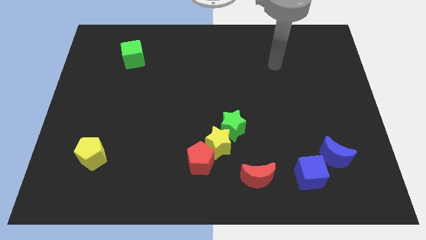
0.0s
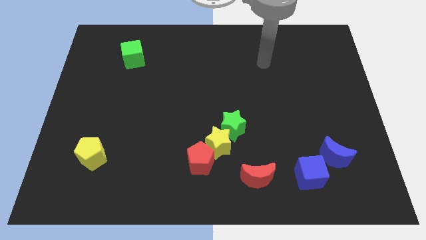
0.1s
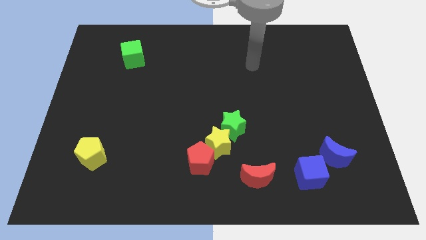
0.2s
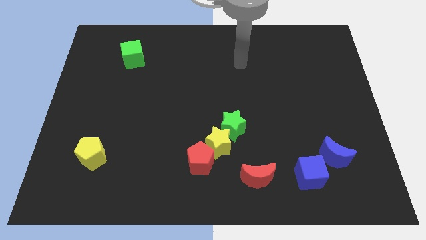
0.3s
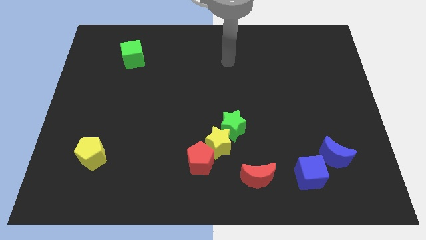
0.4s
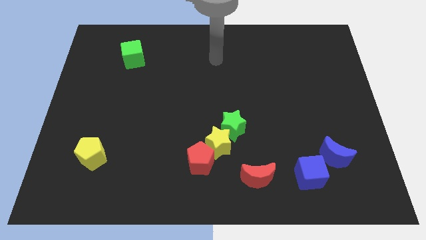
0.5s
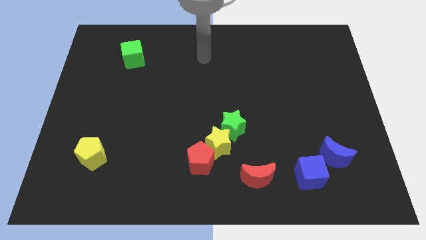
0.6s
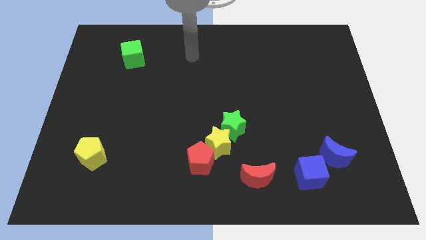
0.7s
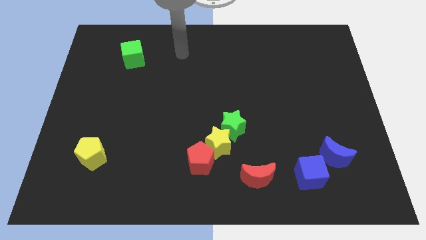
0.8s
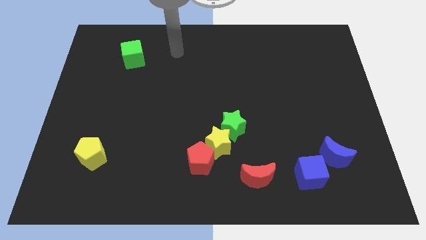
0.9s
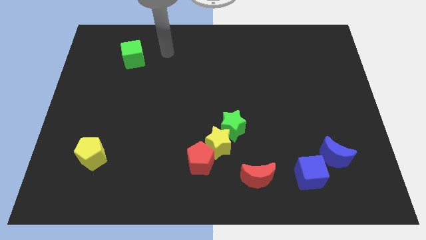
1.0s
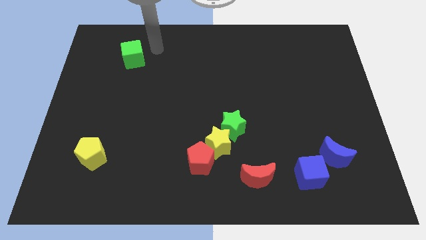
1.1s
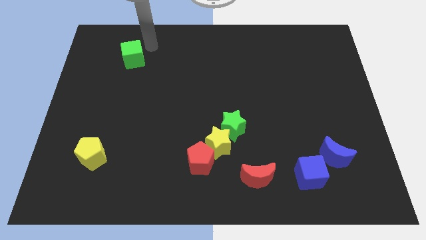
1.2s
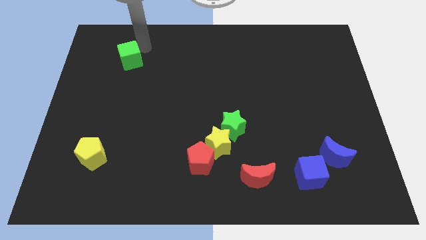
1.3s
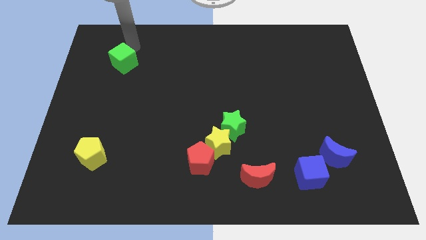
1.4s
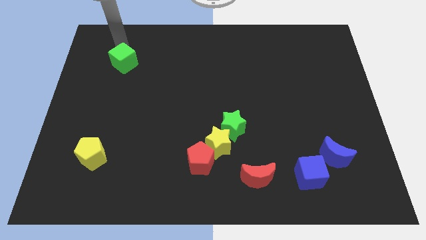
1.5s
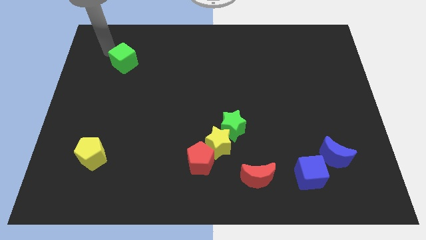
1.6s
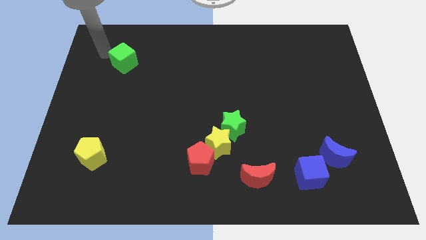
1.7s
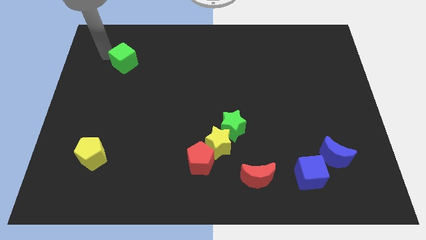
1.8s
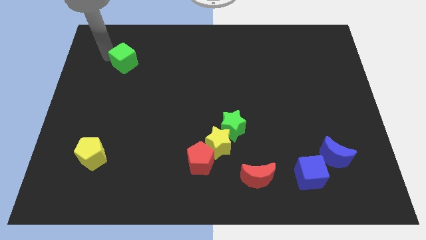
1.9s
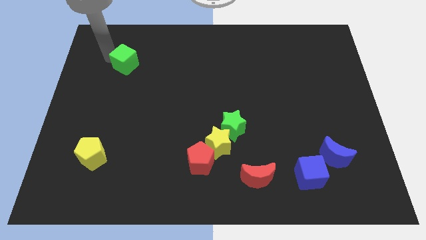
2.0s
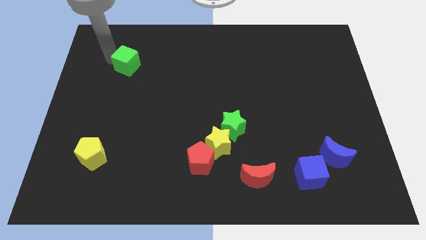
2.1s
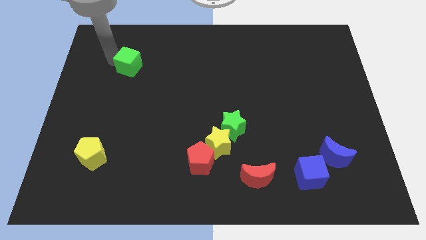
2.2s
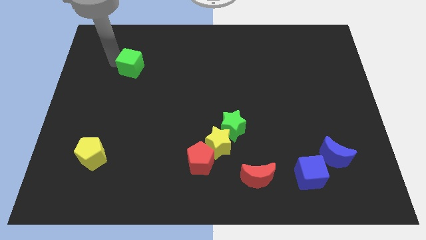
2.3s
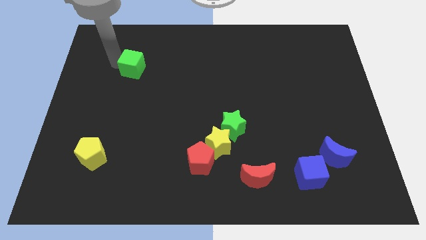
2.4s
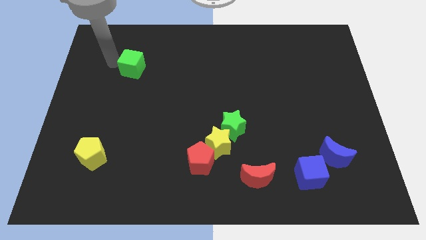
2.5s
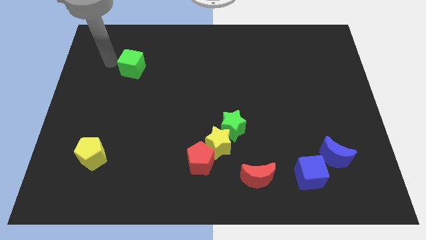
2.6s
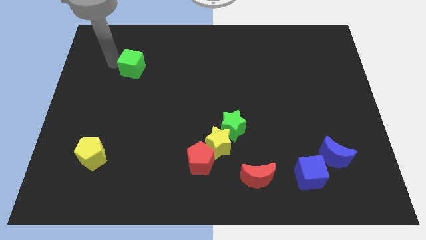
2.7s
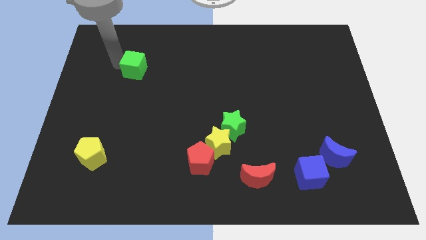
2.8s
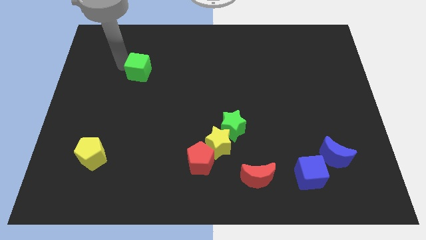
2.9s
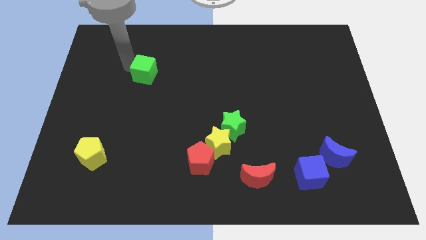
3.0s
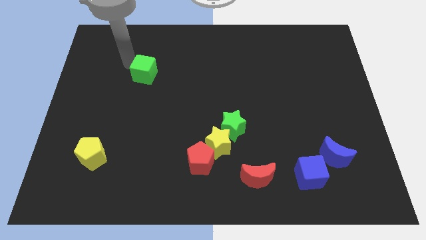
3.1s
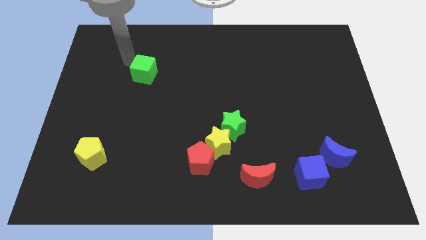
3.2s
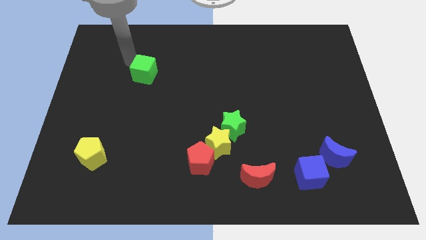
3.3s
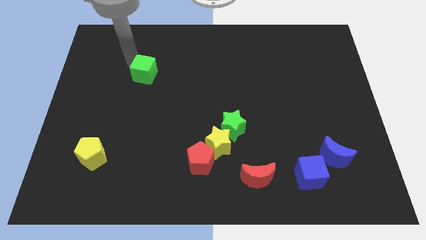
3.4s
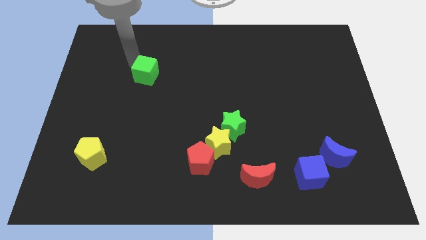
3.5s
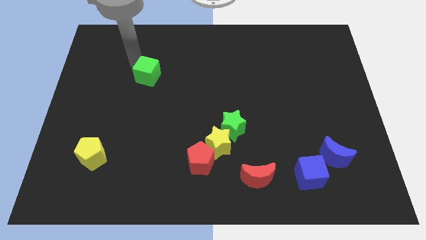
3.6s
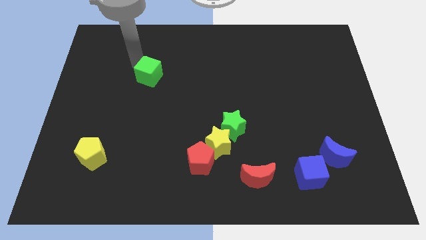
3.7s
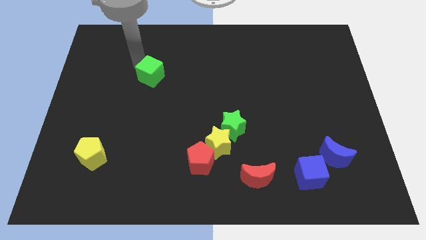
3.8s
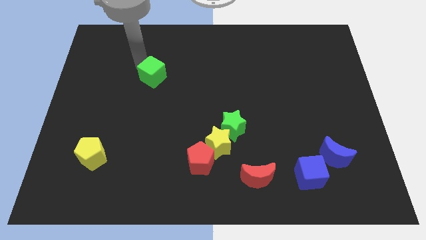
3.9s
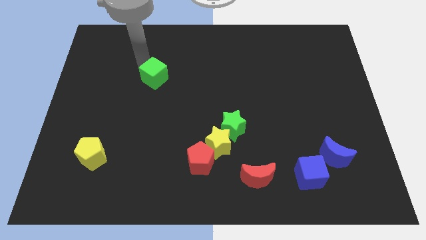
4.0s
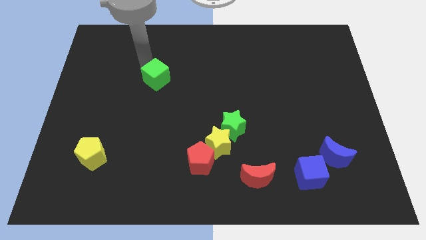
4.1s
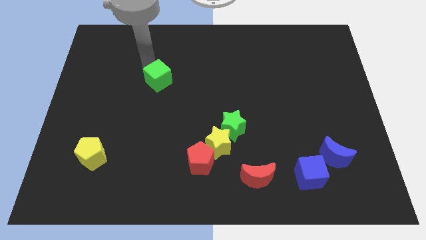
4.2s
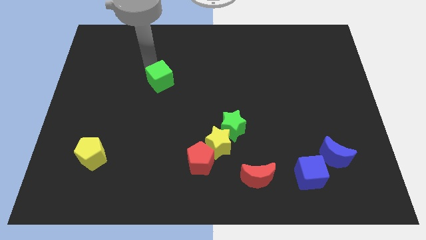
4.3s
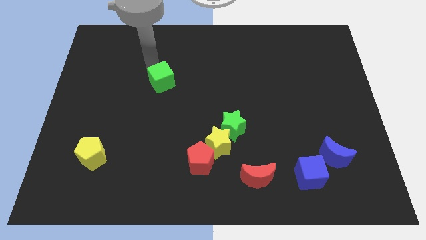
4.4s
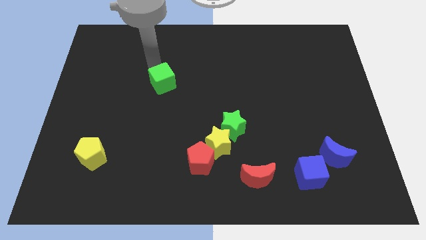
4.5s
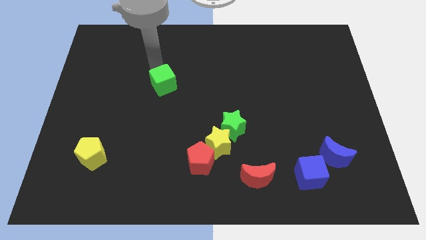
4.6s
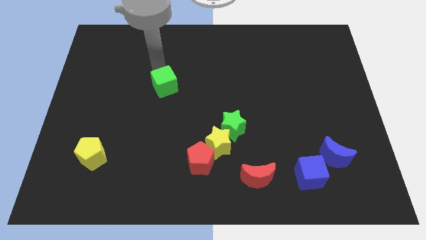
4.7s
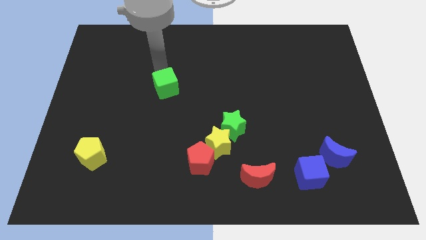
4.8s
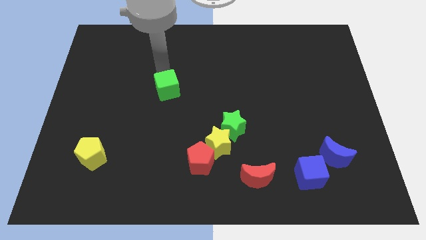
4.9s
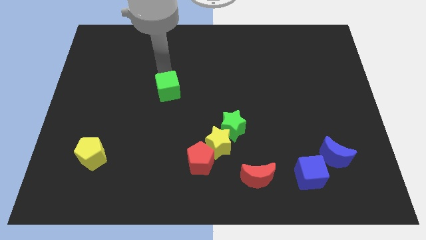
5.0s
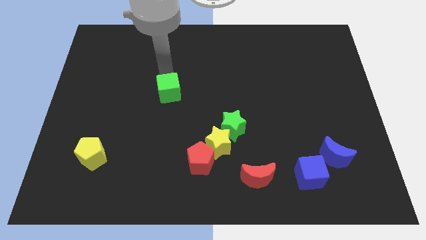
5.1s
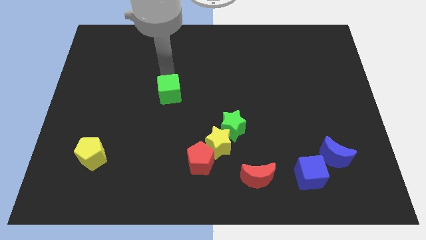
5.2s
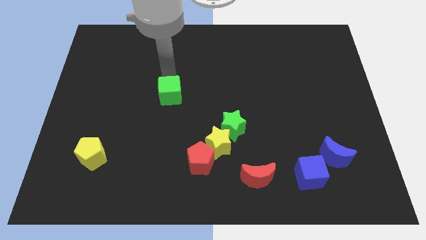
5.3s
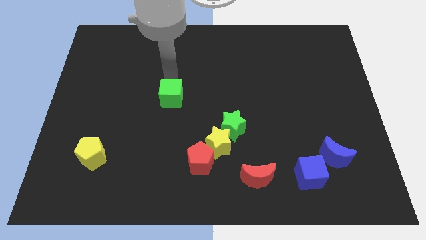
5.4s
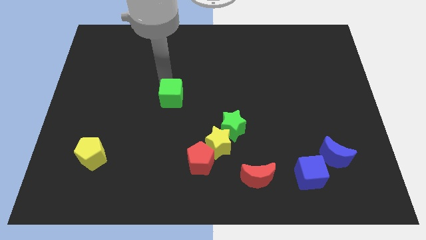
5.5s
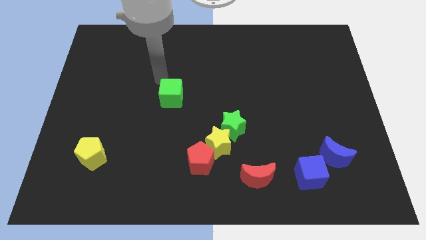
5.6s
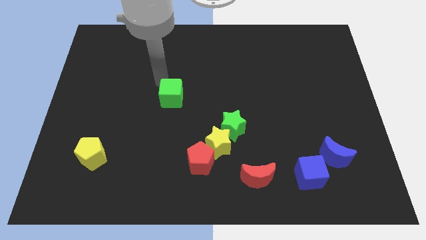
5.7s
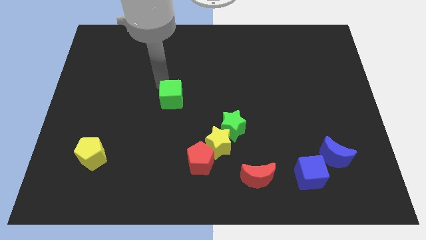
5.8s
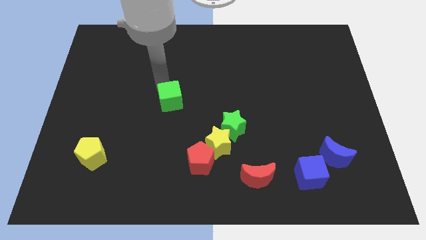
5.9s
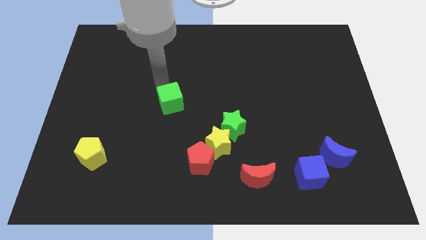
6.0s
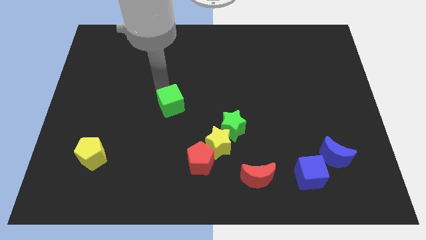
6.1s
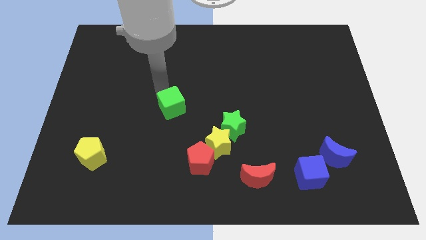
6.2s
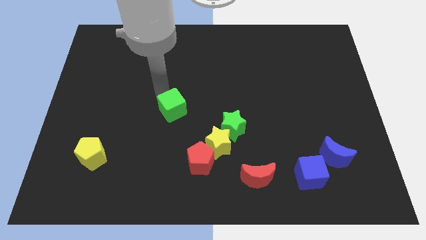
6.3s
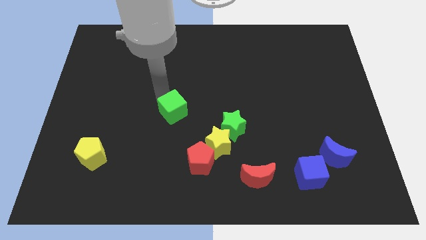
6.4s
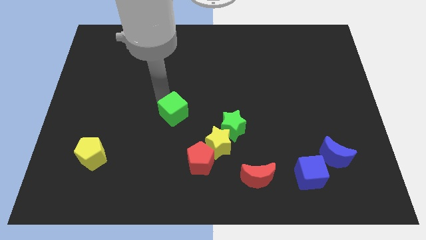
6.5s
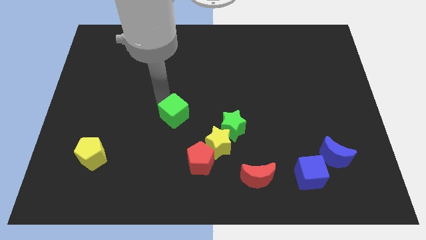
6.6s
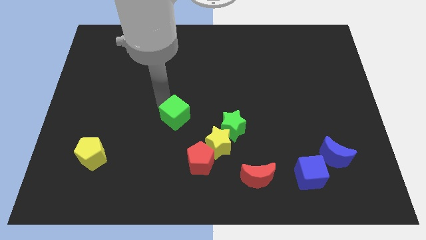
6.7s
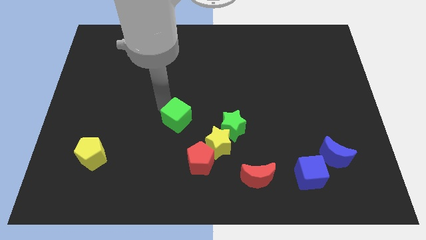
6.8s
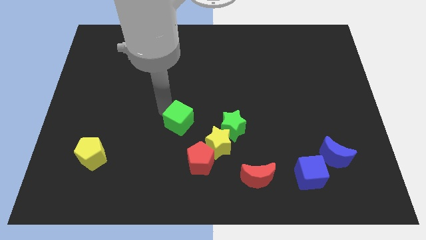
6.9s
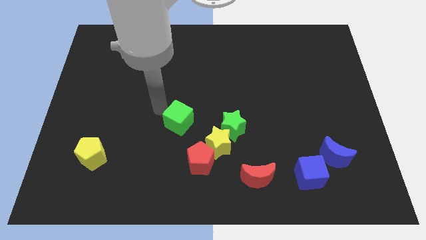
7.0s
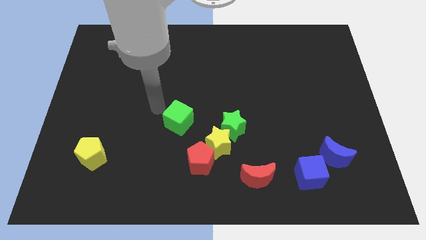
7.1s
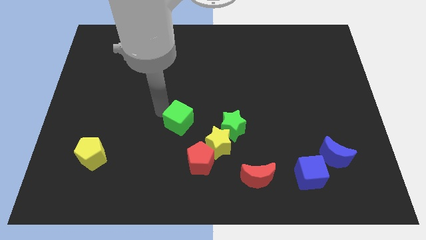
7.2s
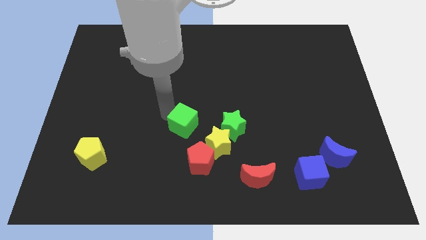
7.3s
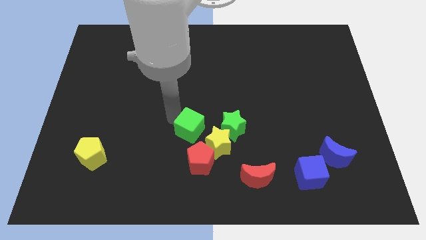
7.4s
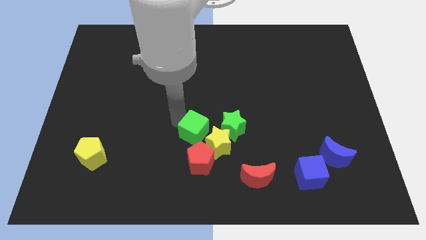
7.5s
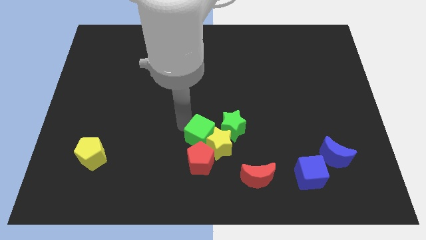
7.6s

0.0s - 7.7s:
push the green cube towards the yellow star
